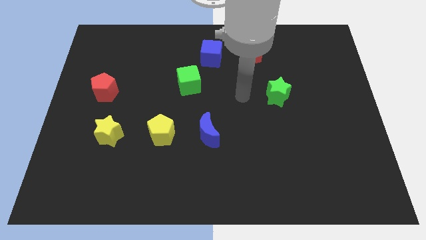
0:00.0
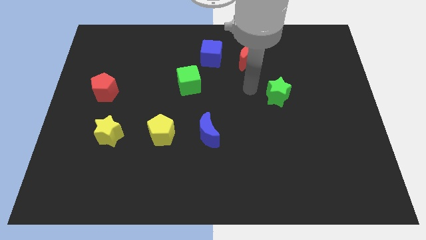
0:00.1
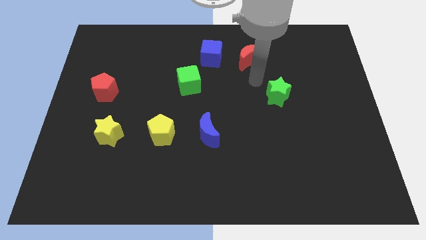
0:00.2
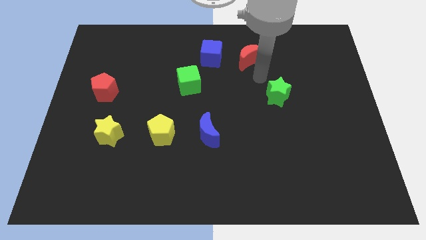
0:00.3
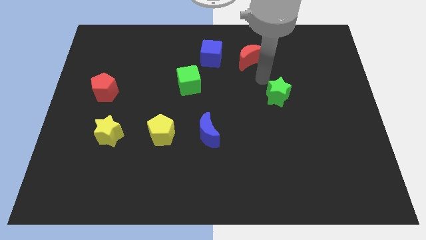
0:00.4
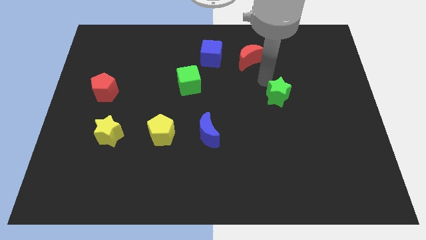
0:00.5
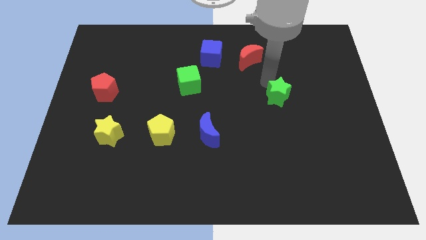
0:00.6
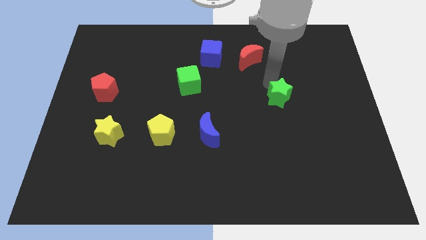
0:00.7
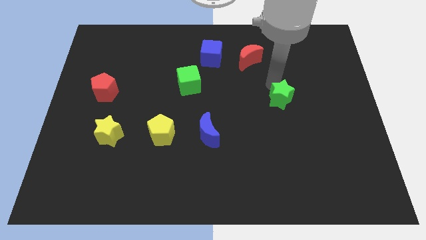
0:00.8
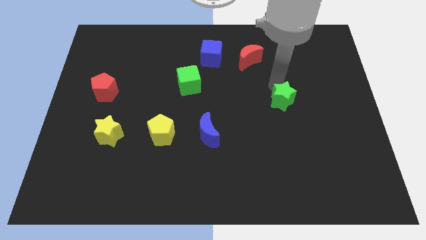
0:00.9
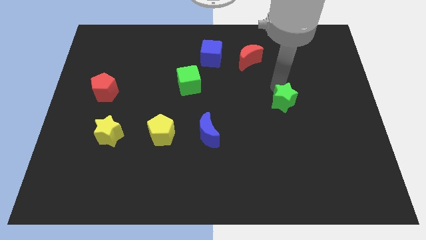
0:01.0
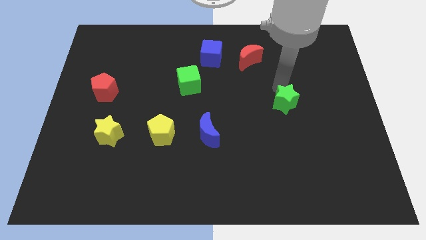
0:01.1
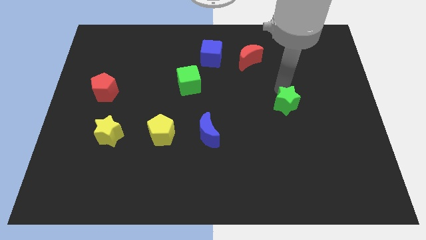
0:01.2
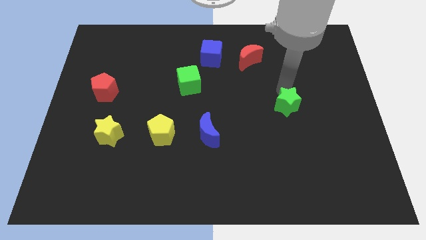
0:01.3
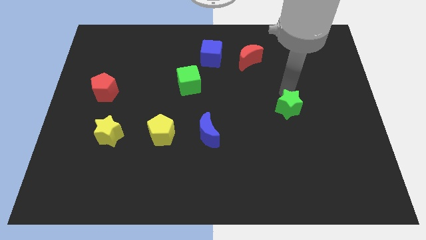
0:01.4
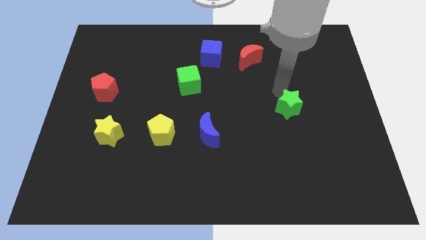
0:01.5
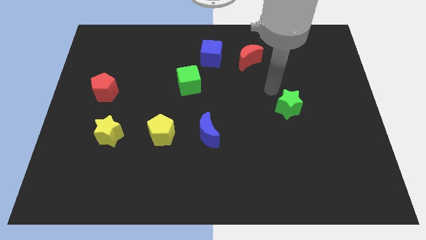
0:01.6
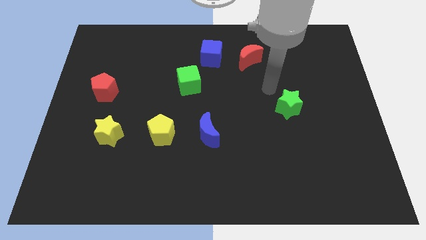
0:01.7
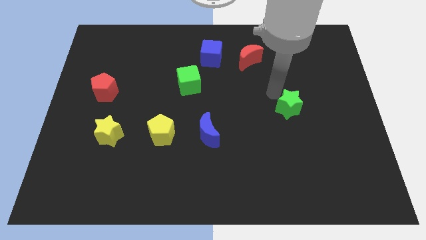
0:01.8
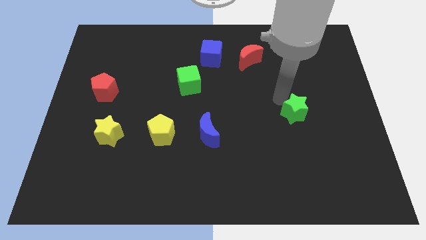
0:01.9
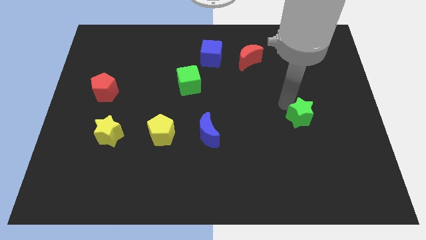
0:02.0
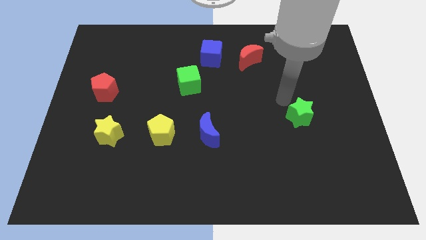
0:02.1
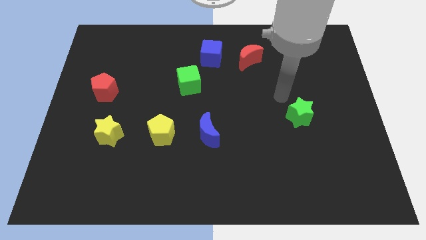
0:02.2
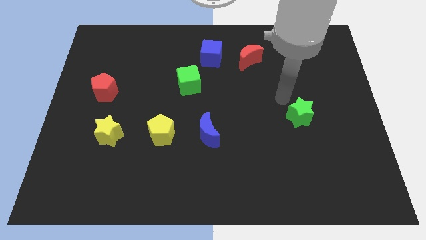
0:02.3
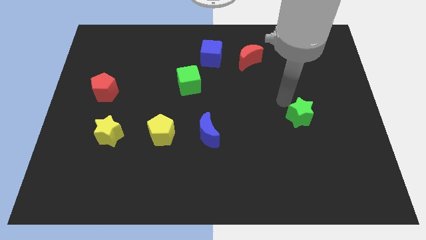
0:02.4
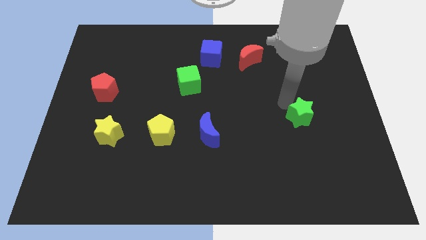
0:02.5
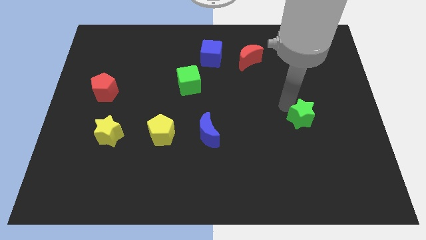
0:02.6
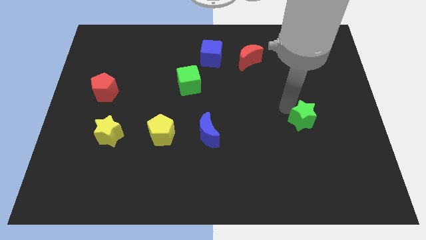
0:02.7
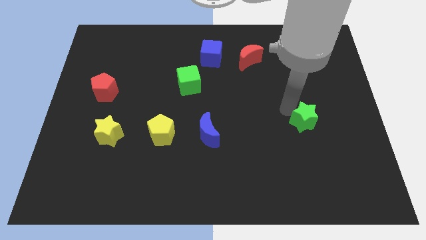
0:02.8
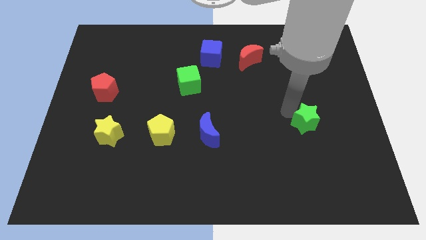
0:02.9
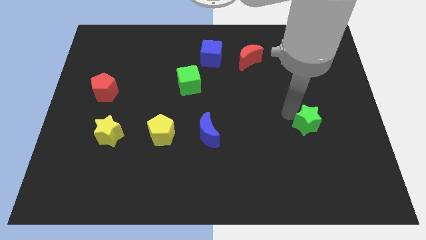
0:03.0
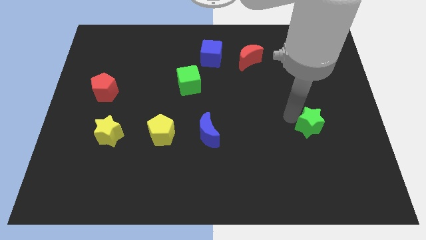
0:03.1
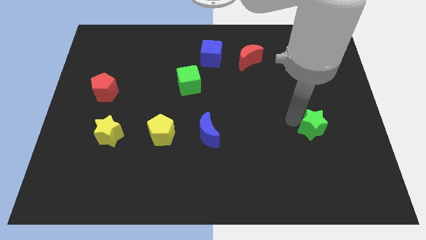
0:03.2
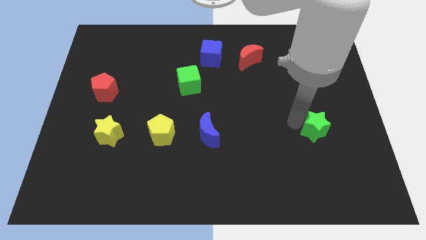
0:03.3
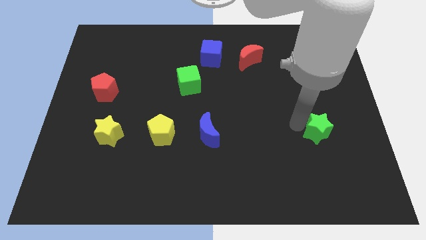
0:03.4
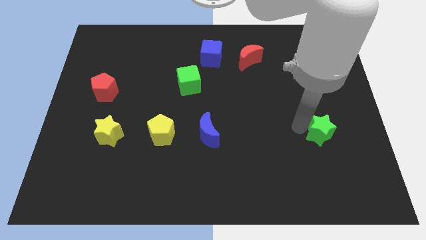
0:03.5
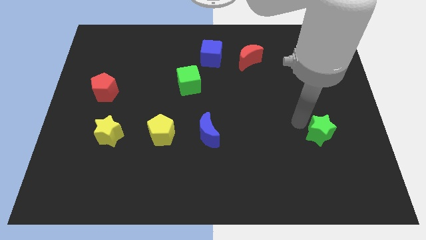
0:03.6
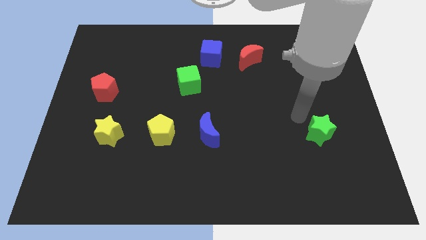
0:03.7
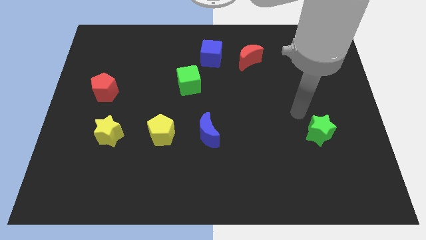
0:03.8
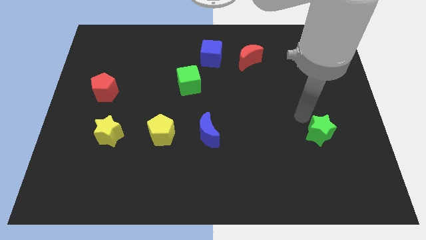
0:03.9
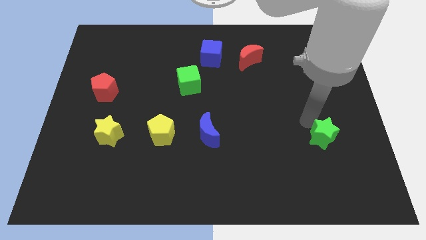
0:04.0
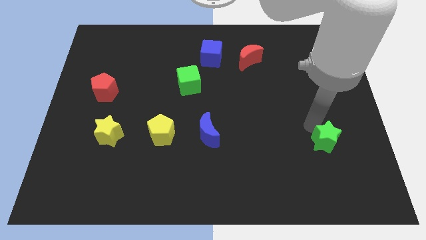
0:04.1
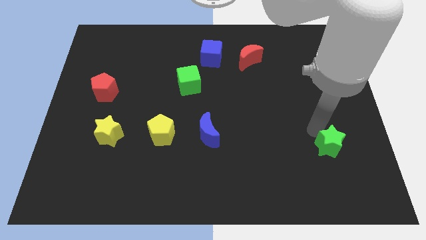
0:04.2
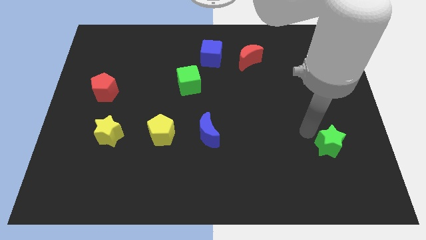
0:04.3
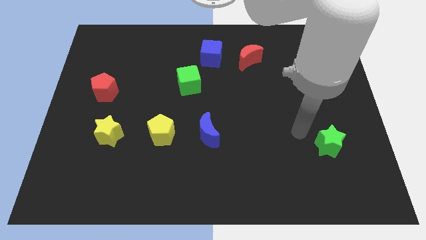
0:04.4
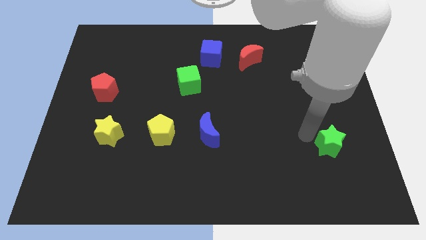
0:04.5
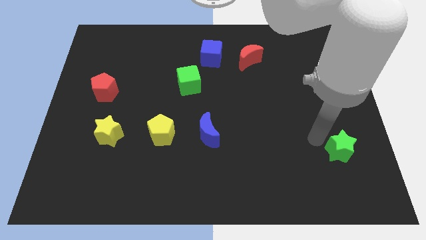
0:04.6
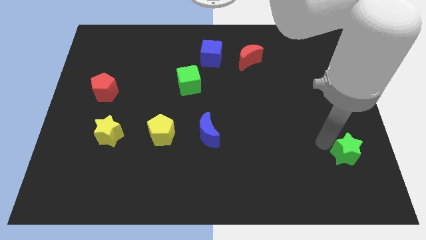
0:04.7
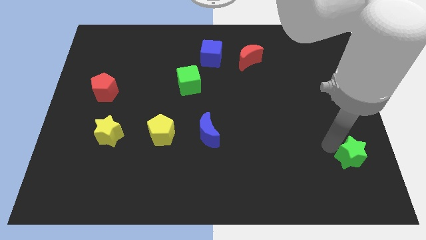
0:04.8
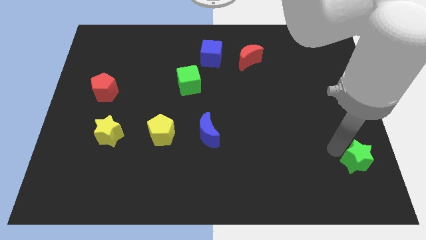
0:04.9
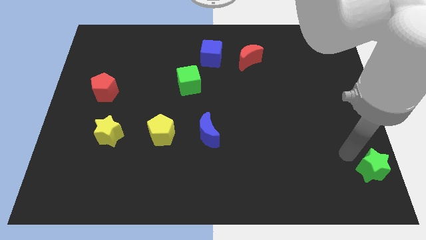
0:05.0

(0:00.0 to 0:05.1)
push the green star to the bottom right of the board

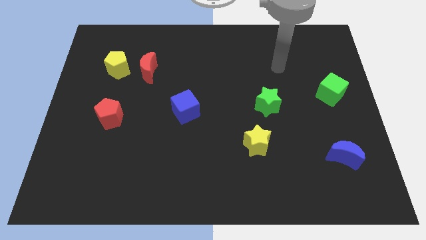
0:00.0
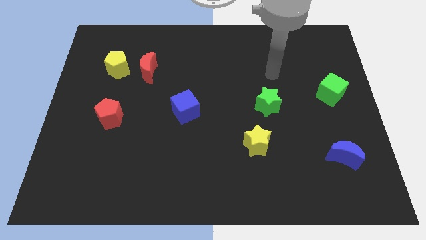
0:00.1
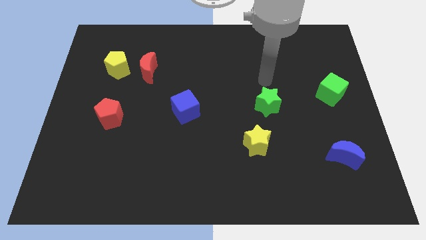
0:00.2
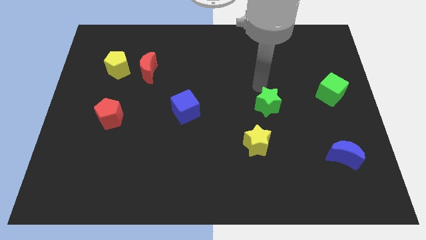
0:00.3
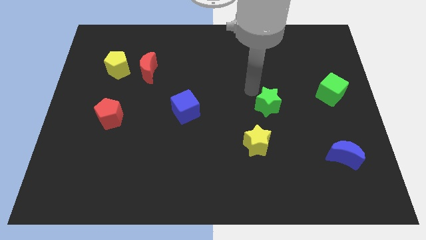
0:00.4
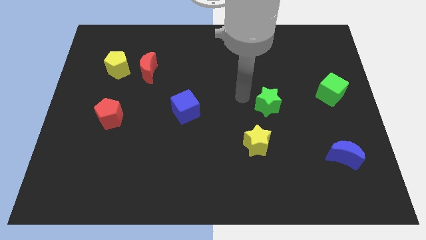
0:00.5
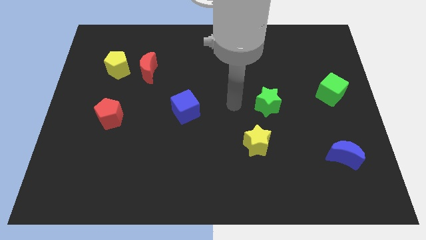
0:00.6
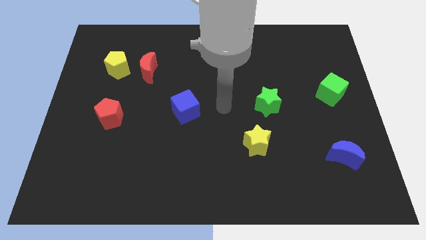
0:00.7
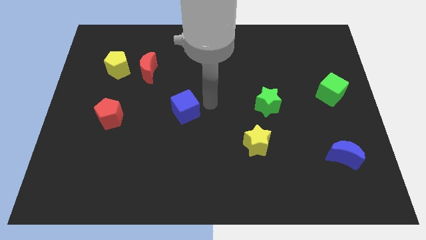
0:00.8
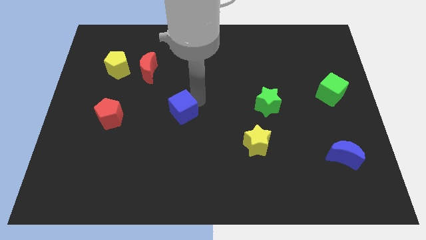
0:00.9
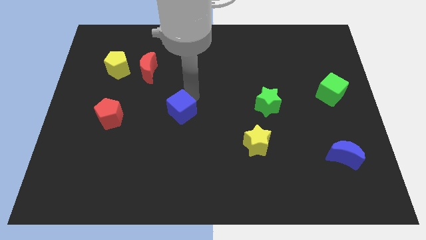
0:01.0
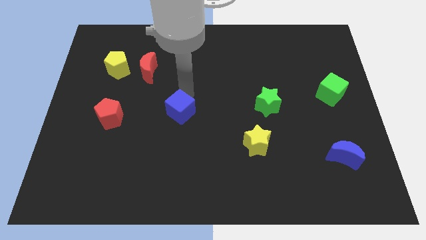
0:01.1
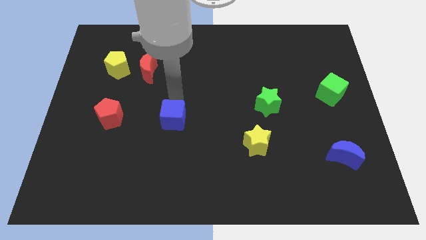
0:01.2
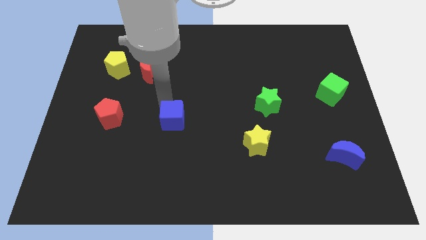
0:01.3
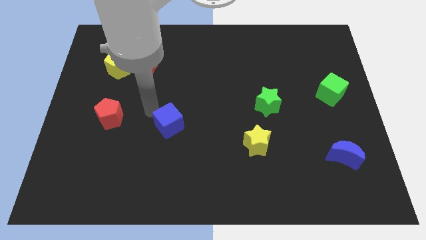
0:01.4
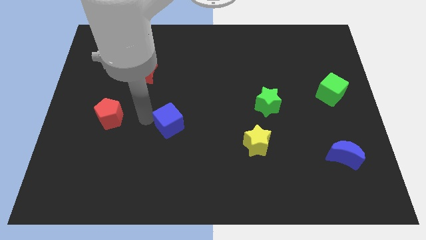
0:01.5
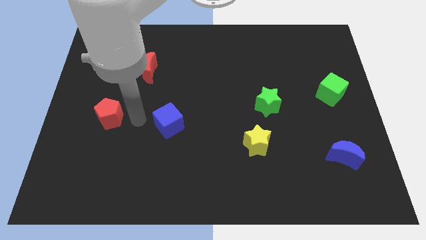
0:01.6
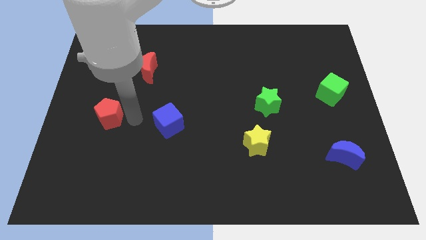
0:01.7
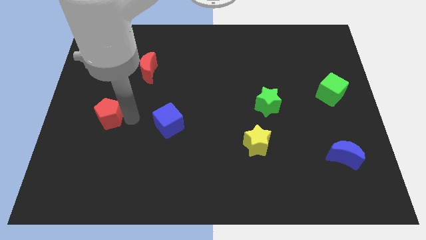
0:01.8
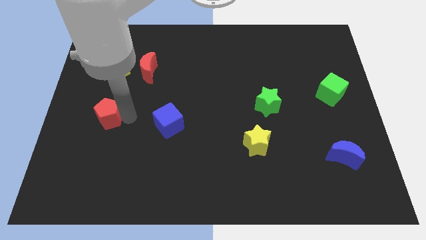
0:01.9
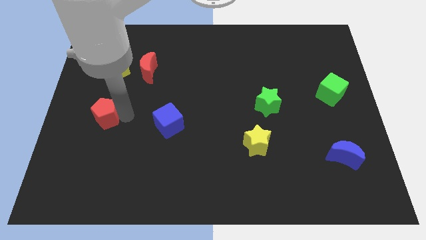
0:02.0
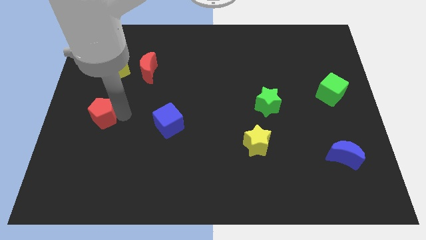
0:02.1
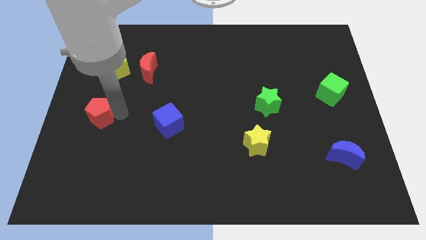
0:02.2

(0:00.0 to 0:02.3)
push the red pentagon to the left side
